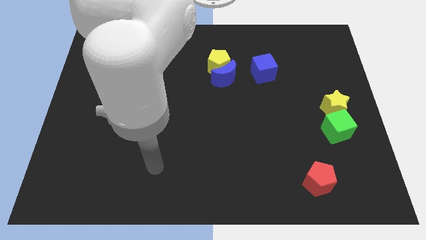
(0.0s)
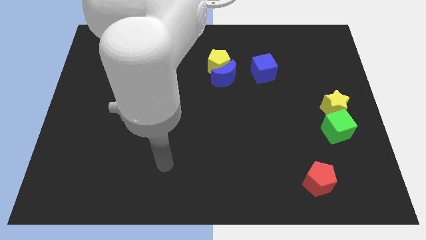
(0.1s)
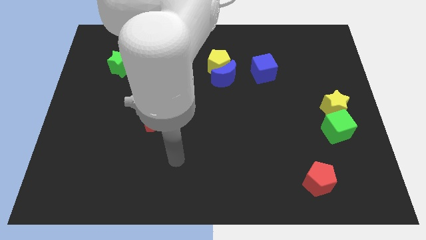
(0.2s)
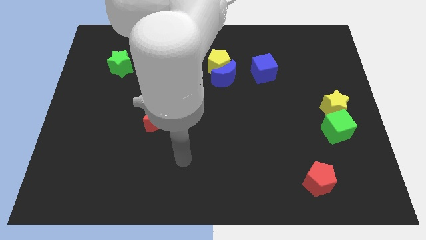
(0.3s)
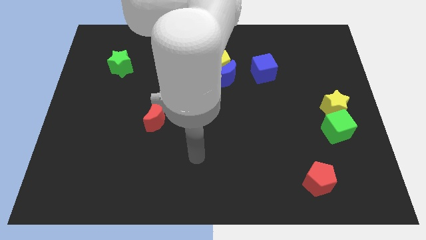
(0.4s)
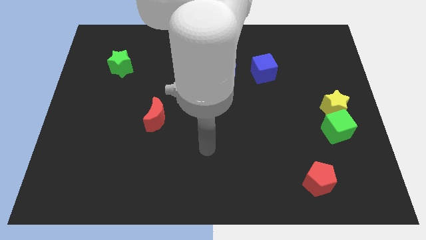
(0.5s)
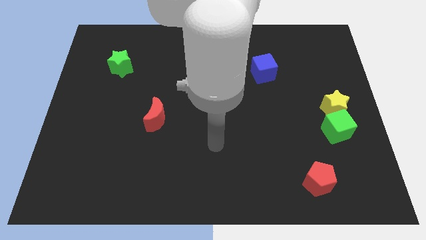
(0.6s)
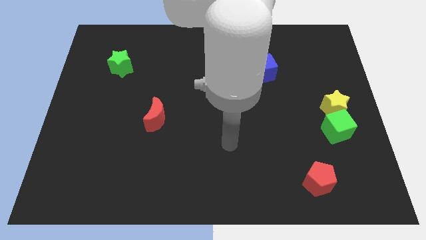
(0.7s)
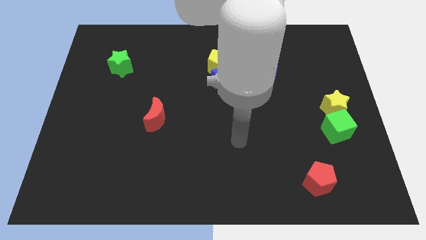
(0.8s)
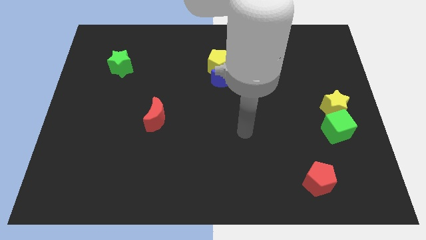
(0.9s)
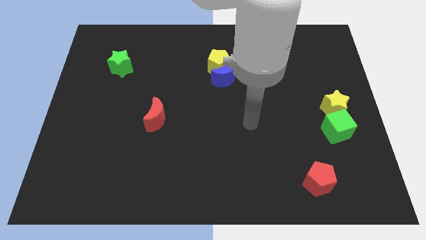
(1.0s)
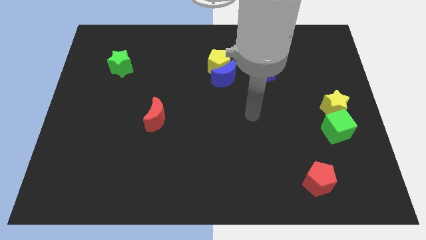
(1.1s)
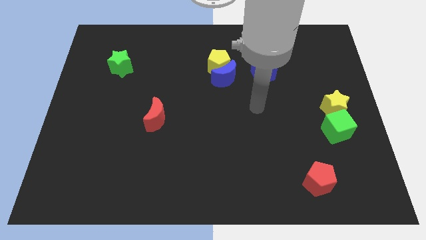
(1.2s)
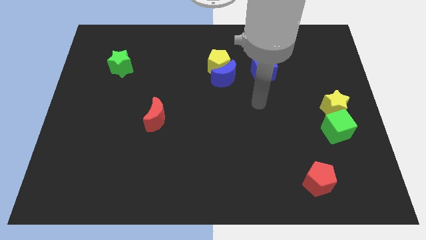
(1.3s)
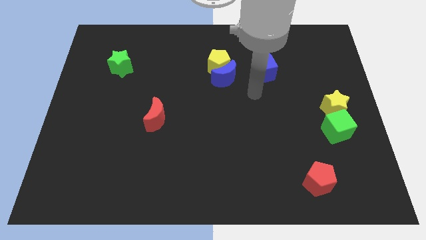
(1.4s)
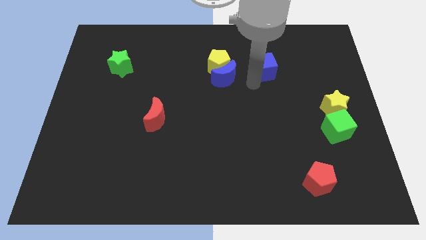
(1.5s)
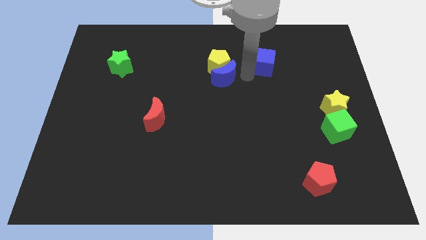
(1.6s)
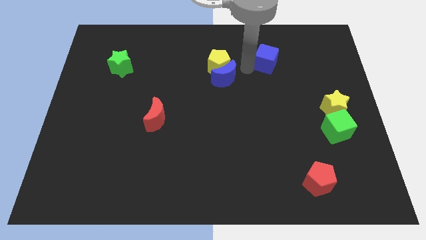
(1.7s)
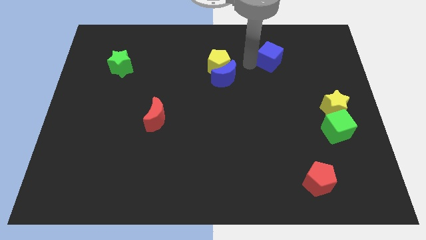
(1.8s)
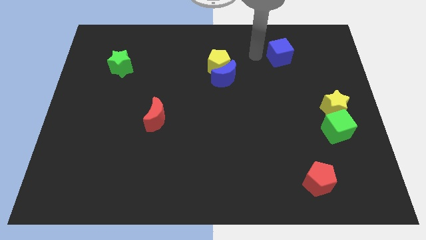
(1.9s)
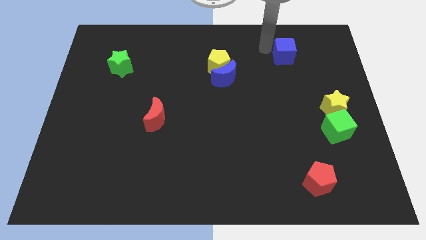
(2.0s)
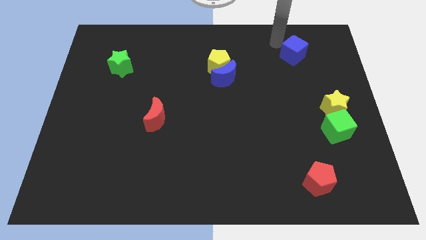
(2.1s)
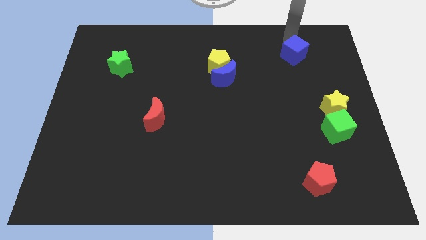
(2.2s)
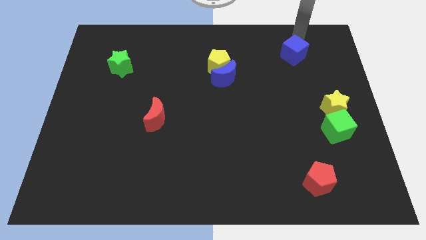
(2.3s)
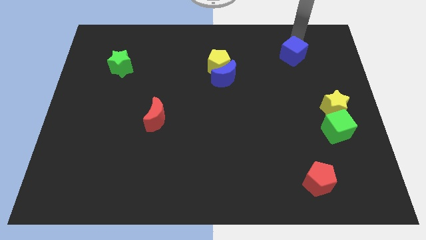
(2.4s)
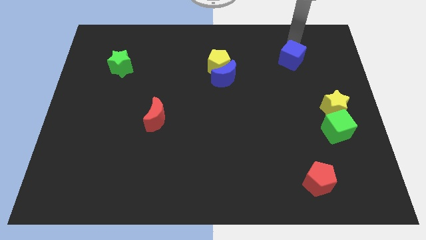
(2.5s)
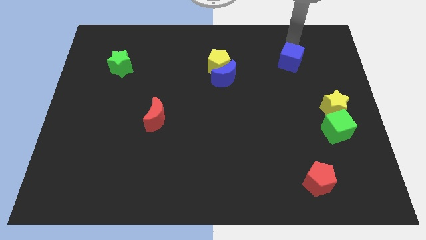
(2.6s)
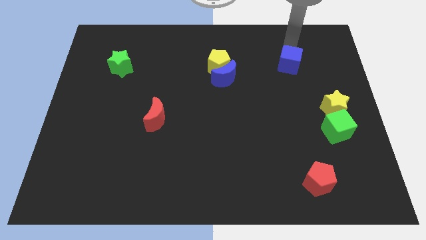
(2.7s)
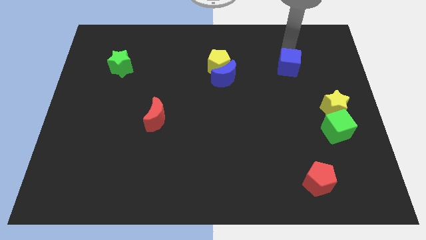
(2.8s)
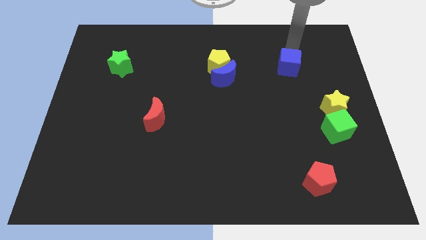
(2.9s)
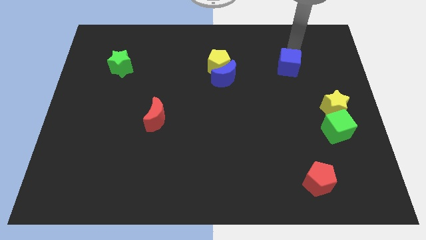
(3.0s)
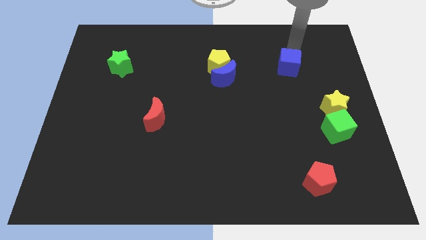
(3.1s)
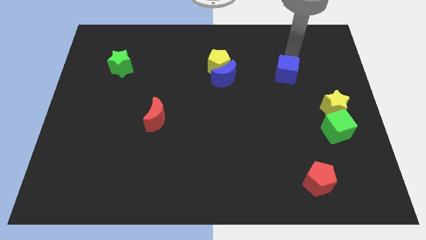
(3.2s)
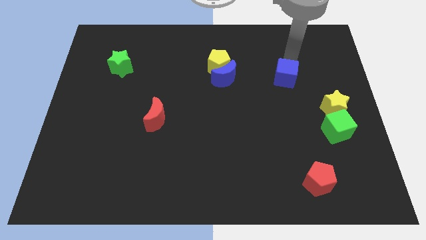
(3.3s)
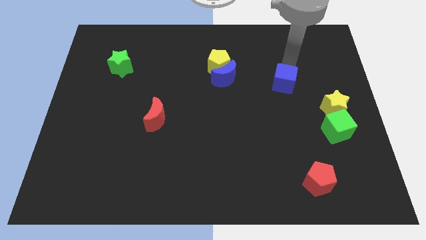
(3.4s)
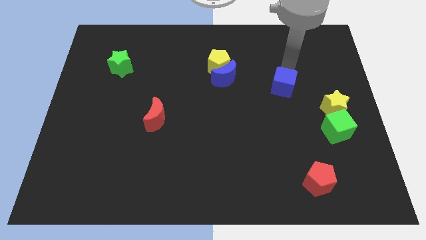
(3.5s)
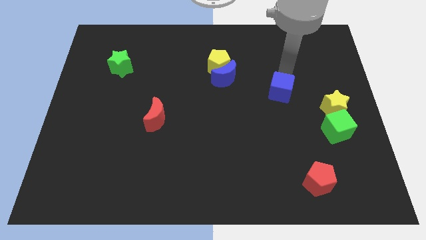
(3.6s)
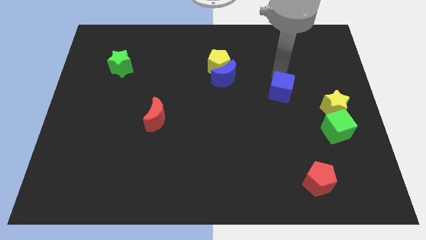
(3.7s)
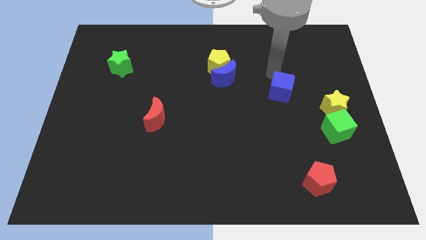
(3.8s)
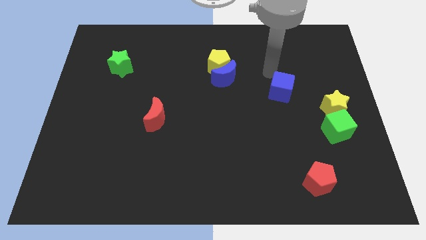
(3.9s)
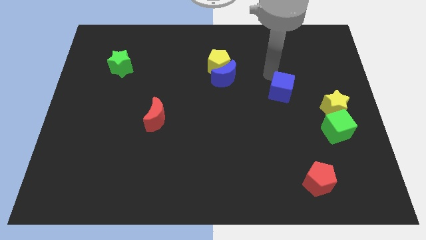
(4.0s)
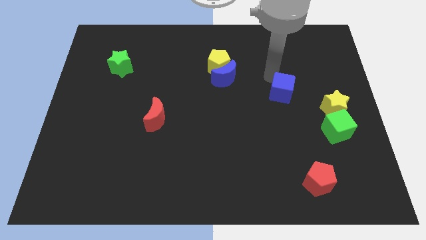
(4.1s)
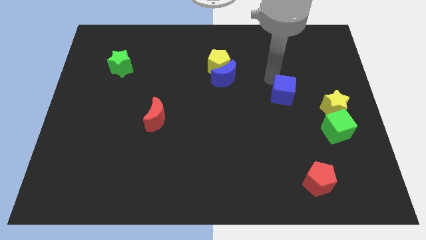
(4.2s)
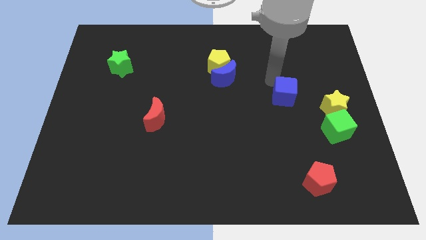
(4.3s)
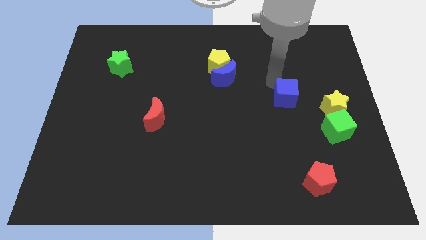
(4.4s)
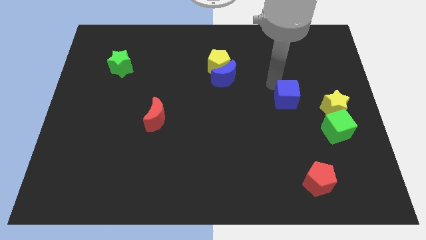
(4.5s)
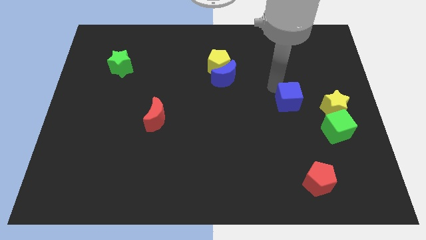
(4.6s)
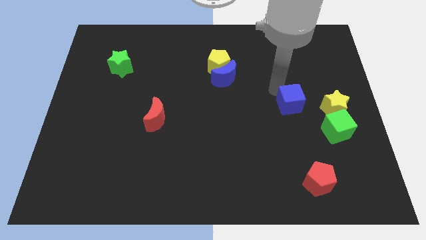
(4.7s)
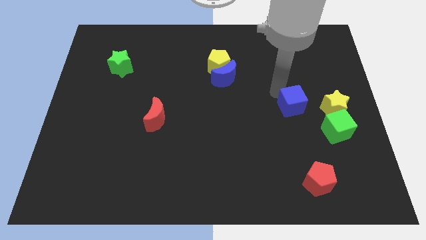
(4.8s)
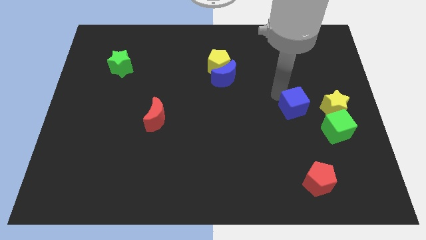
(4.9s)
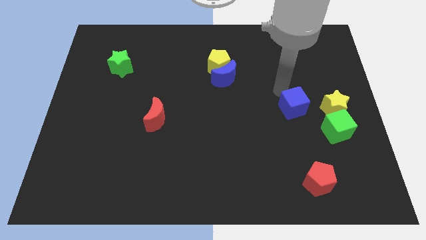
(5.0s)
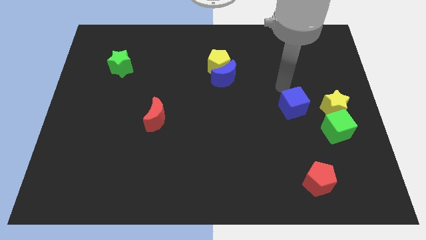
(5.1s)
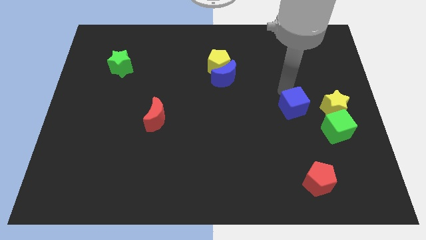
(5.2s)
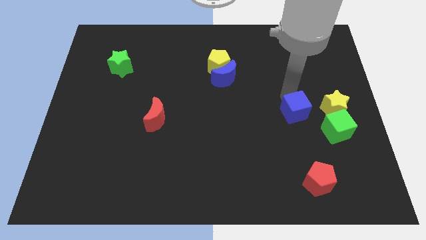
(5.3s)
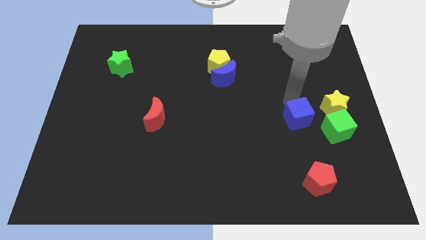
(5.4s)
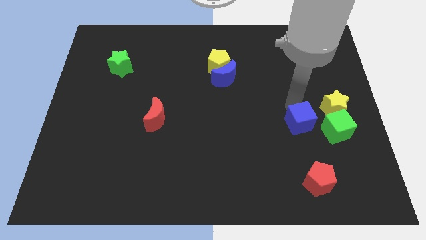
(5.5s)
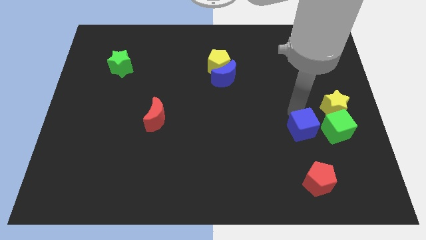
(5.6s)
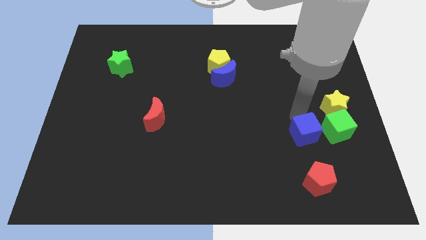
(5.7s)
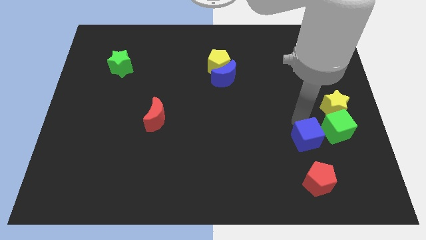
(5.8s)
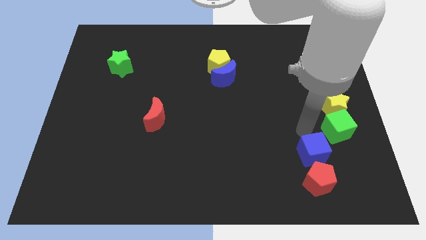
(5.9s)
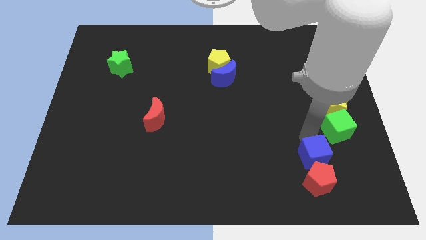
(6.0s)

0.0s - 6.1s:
move the blue cube close to the red pentagon
